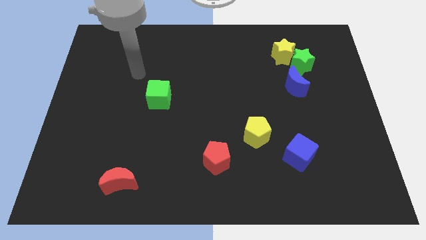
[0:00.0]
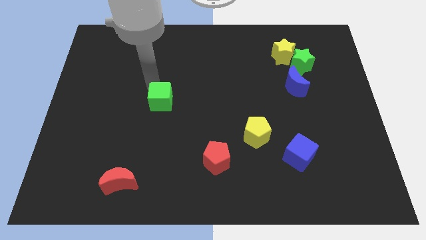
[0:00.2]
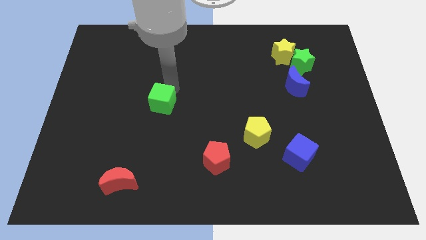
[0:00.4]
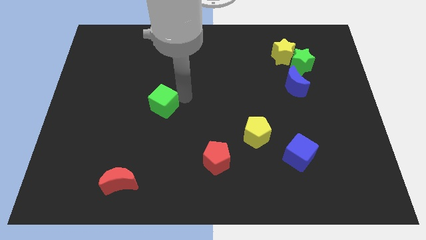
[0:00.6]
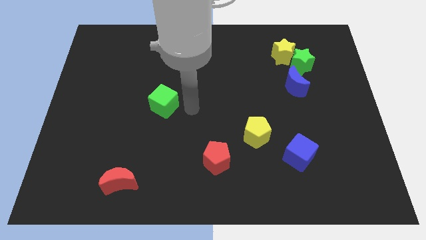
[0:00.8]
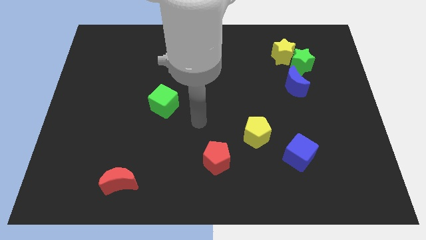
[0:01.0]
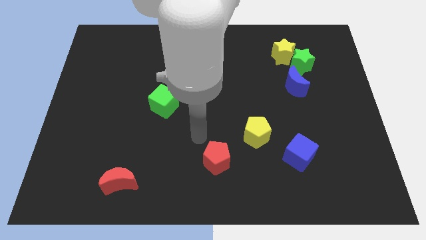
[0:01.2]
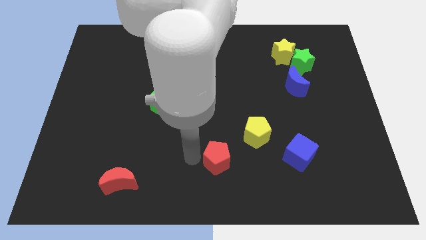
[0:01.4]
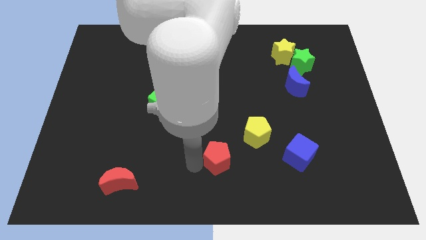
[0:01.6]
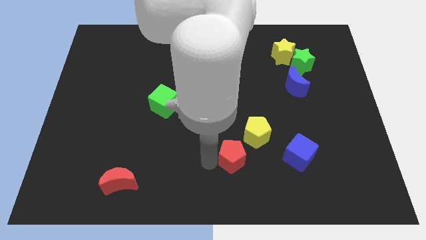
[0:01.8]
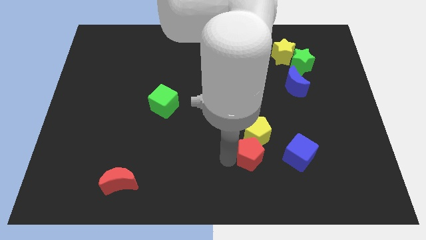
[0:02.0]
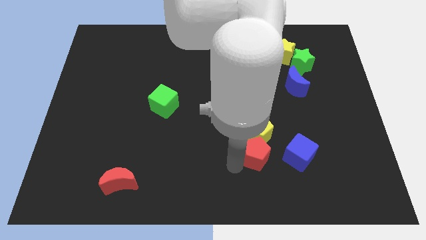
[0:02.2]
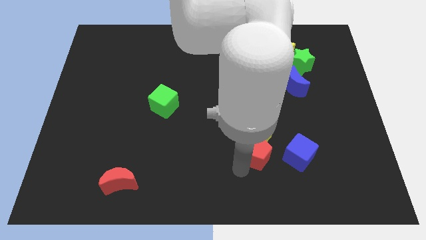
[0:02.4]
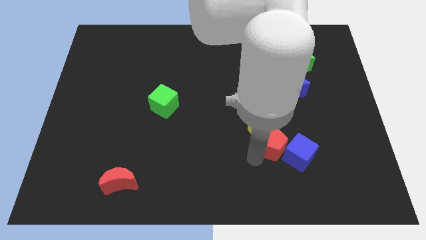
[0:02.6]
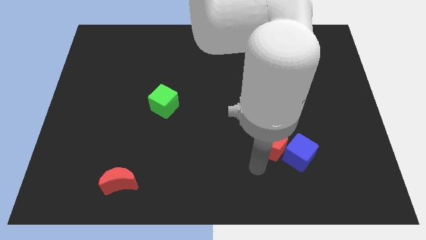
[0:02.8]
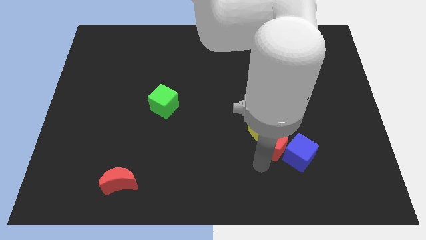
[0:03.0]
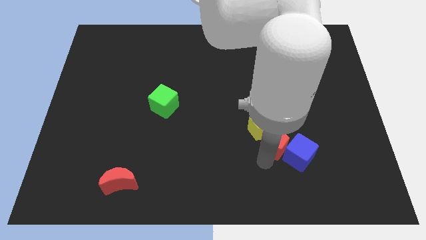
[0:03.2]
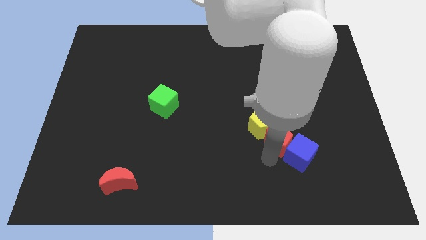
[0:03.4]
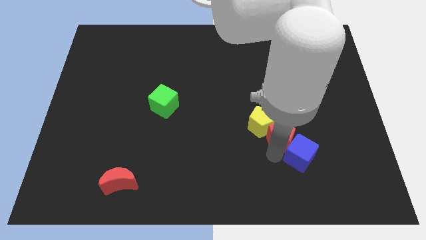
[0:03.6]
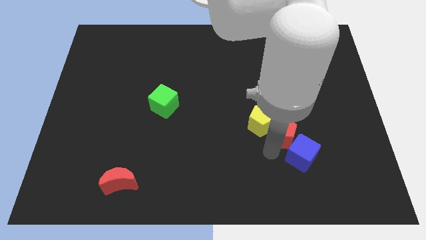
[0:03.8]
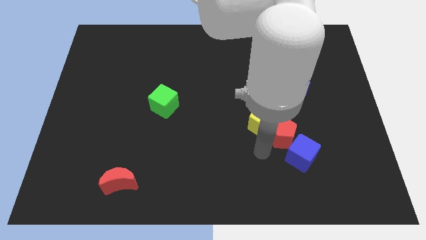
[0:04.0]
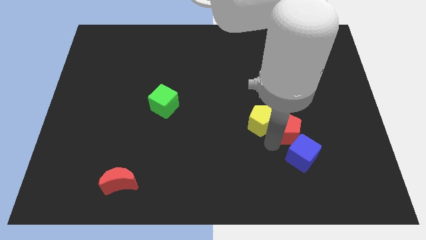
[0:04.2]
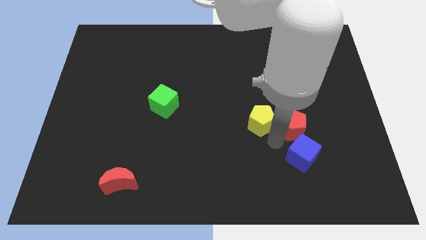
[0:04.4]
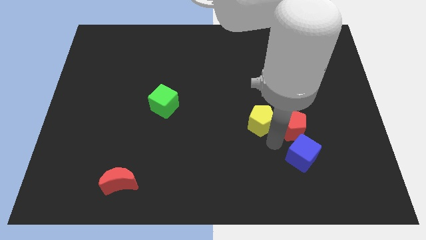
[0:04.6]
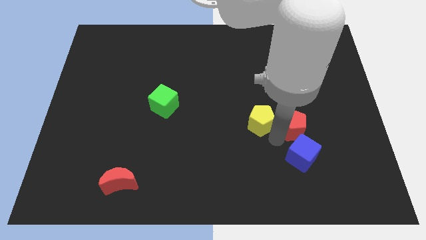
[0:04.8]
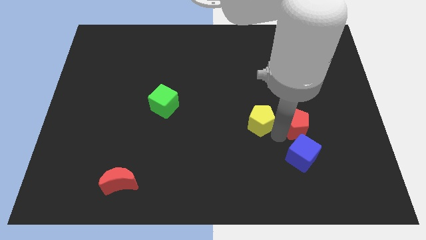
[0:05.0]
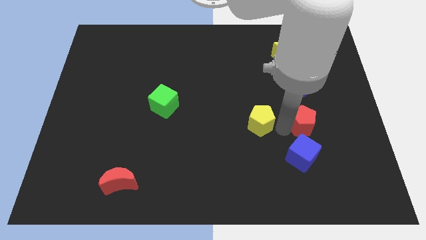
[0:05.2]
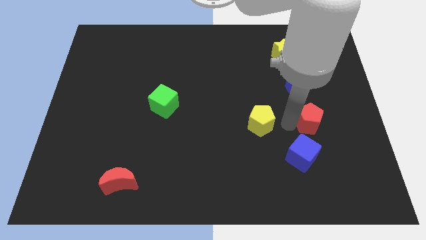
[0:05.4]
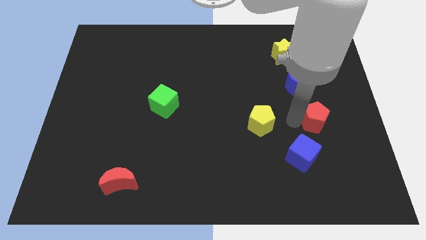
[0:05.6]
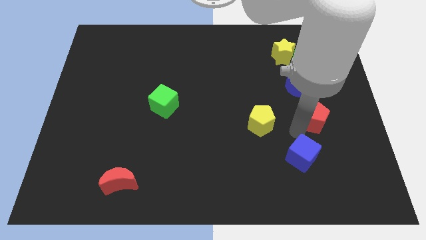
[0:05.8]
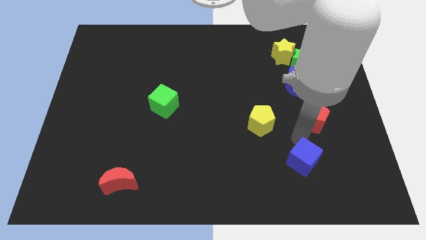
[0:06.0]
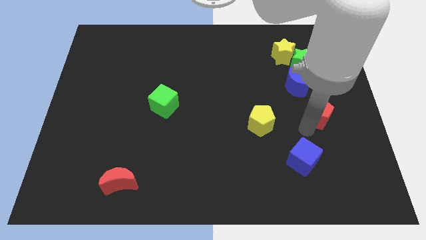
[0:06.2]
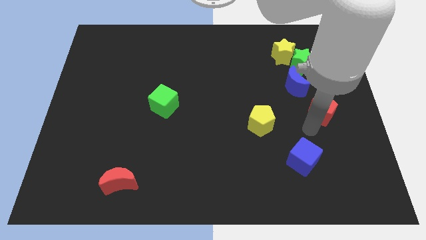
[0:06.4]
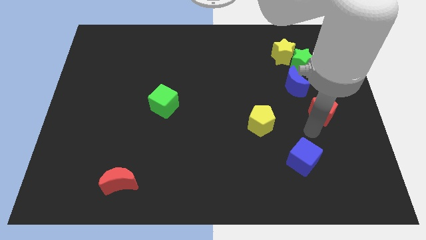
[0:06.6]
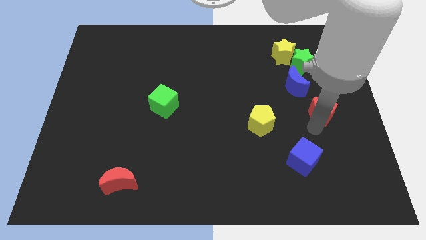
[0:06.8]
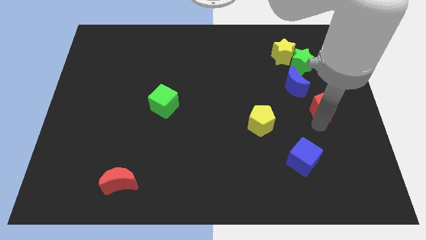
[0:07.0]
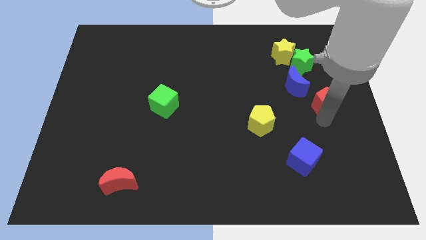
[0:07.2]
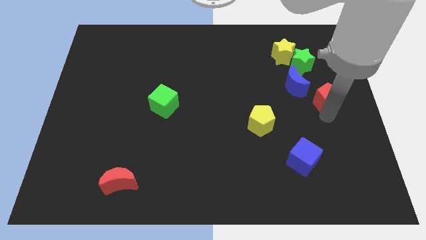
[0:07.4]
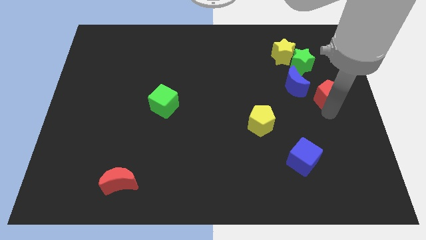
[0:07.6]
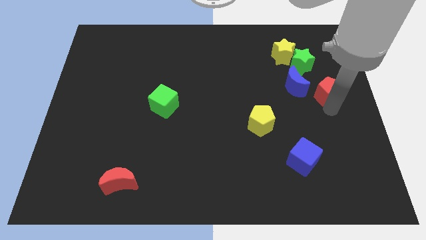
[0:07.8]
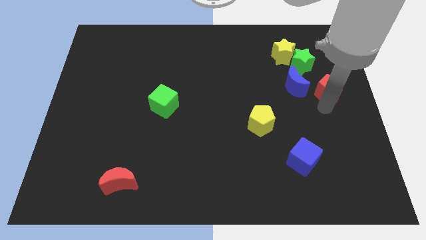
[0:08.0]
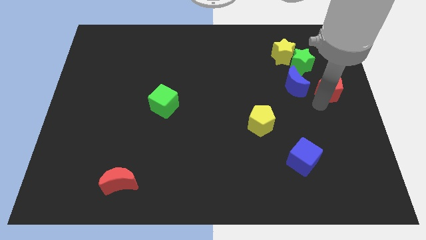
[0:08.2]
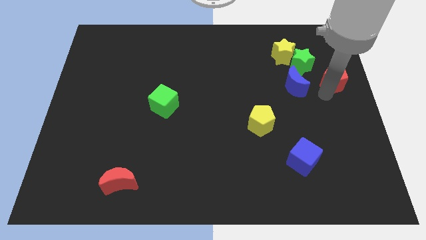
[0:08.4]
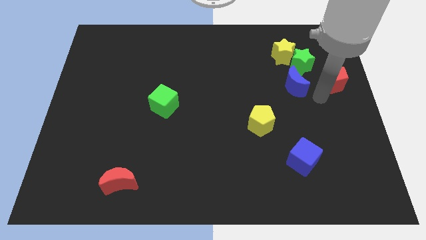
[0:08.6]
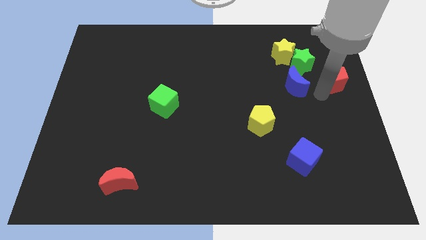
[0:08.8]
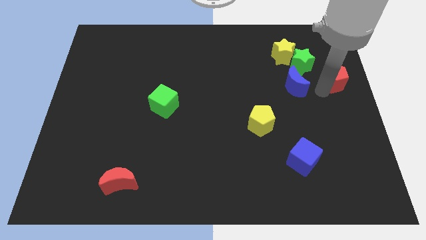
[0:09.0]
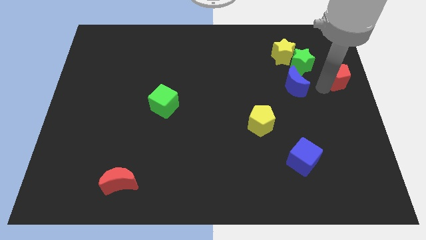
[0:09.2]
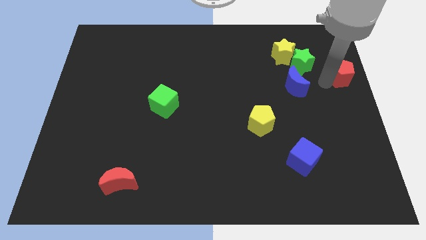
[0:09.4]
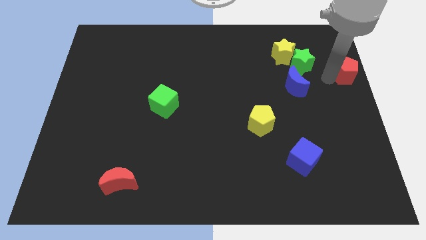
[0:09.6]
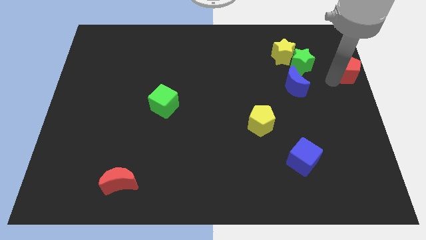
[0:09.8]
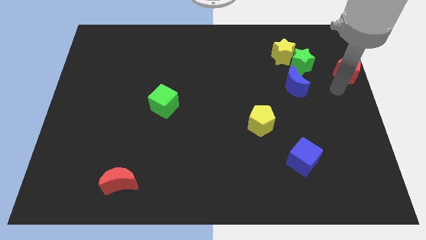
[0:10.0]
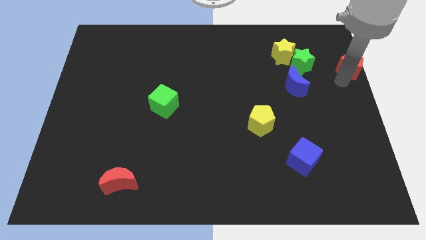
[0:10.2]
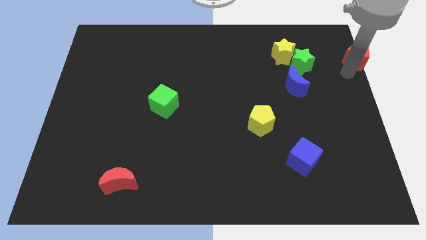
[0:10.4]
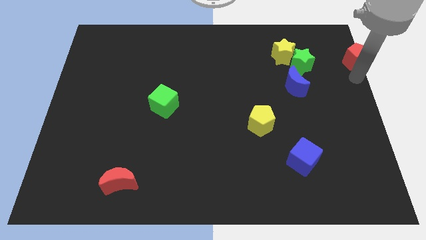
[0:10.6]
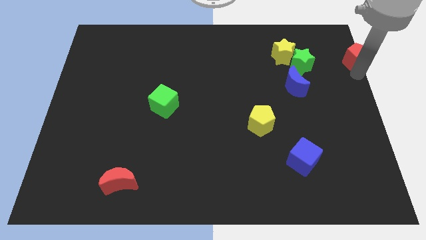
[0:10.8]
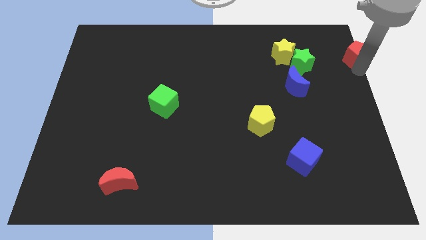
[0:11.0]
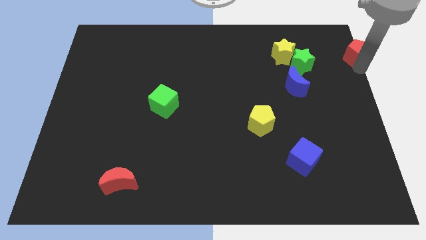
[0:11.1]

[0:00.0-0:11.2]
slide the red pentagon to the top right

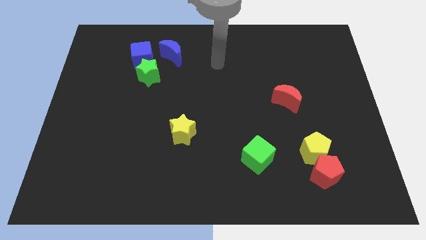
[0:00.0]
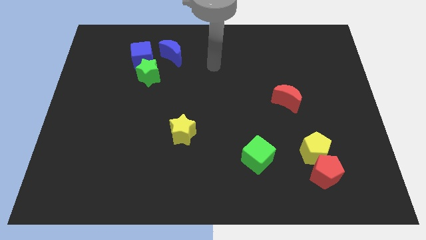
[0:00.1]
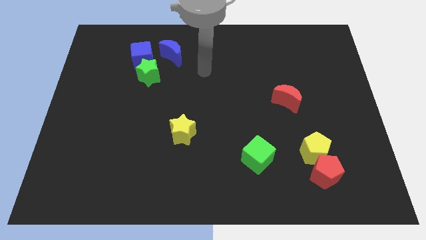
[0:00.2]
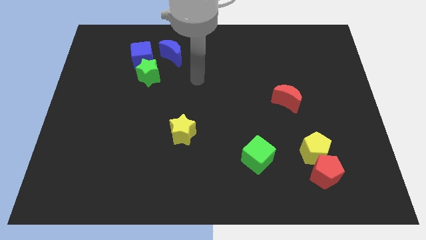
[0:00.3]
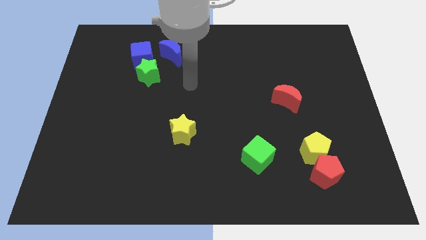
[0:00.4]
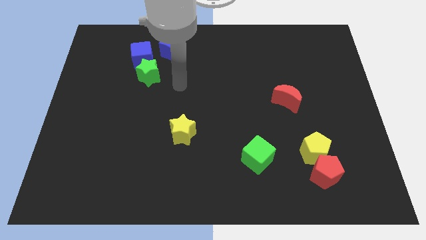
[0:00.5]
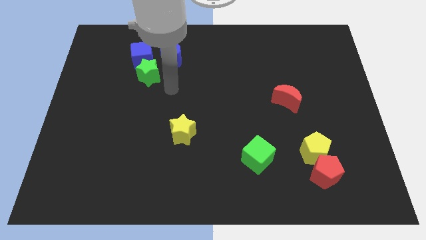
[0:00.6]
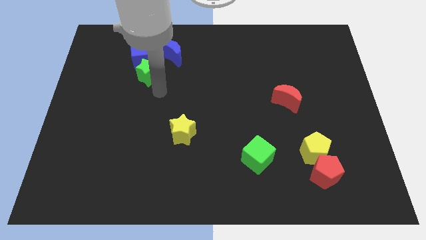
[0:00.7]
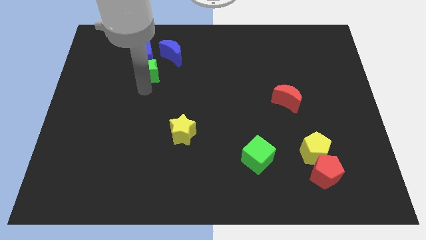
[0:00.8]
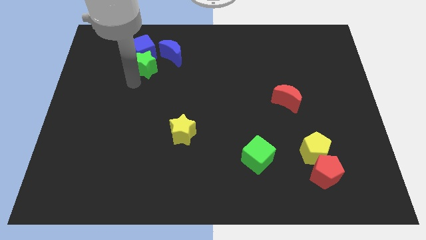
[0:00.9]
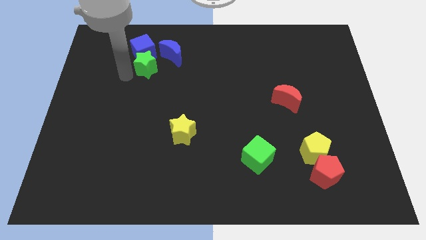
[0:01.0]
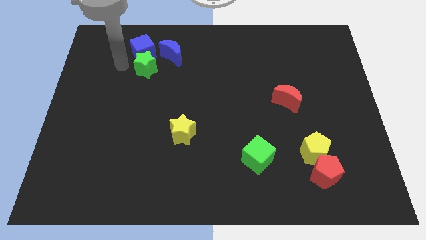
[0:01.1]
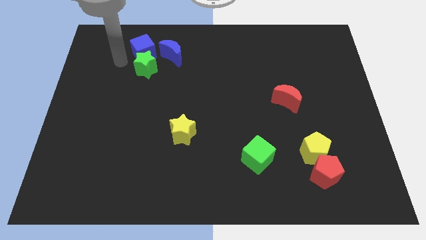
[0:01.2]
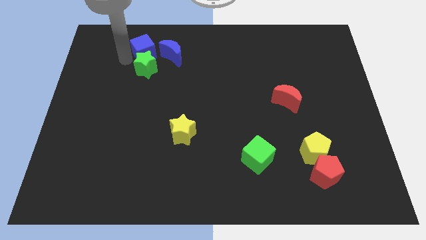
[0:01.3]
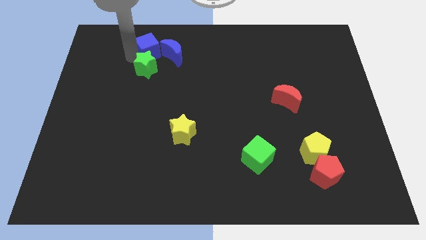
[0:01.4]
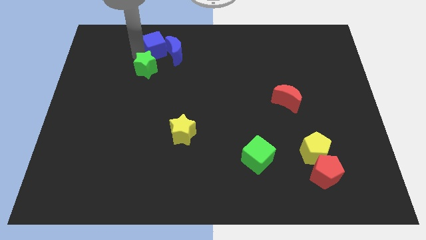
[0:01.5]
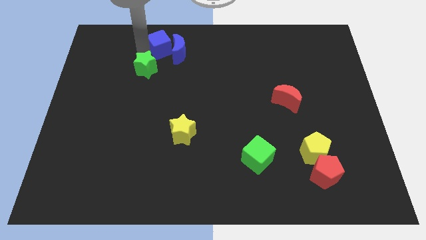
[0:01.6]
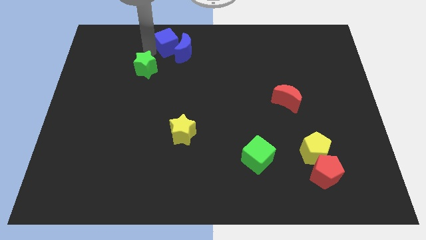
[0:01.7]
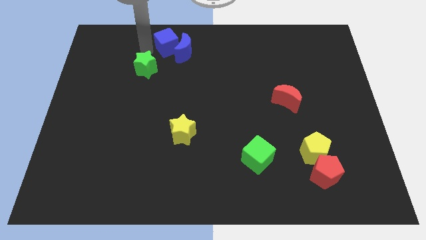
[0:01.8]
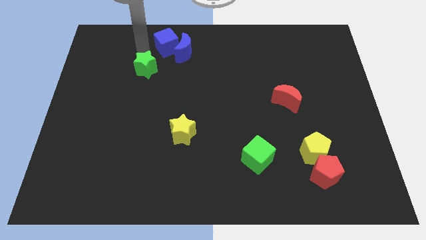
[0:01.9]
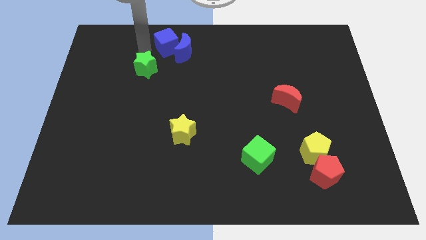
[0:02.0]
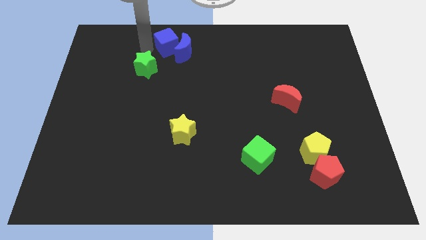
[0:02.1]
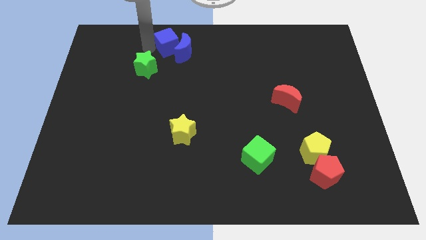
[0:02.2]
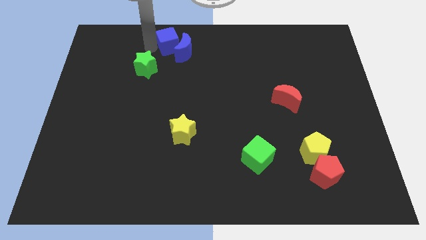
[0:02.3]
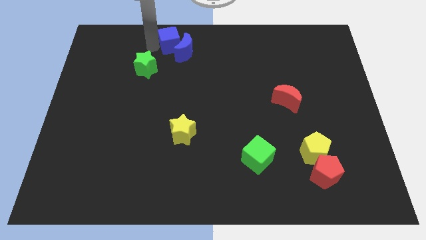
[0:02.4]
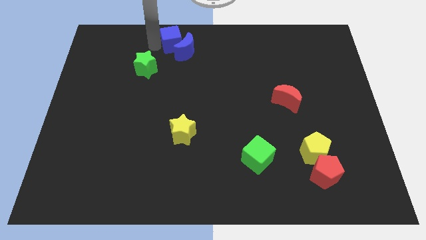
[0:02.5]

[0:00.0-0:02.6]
slide the blue cube to the towards your base
